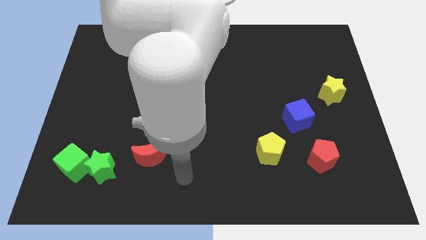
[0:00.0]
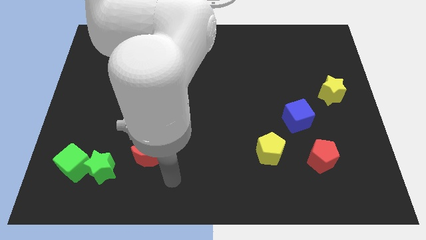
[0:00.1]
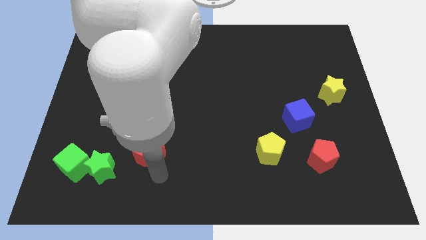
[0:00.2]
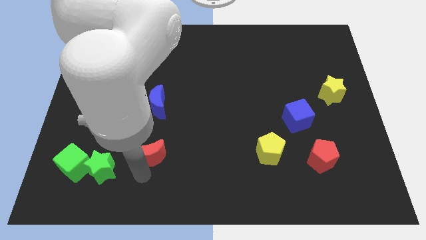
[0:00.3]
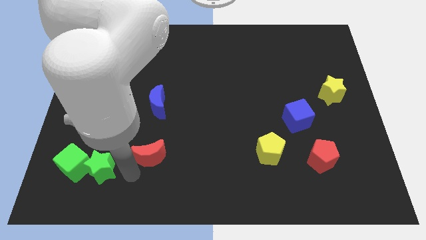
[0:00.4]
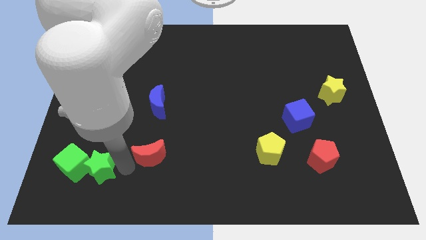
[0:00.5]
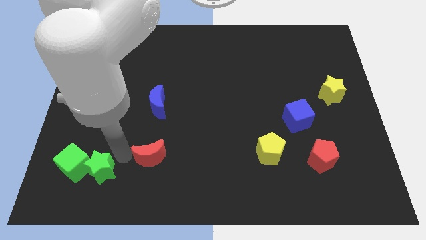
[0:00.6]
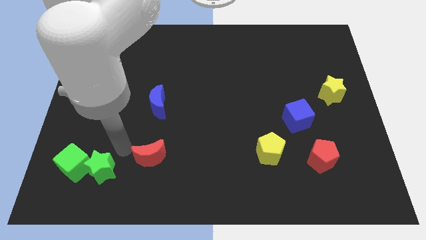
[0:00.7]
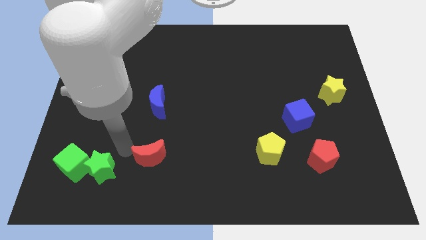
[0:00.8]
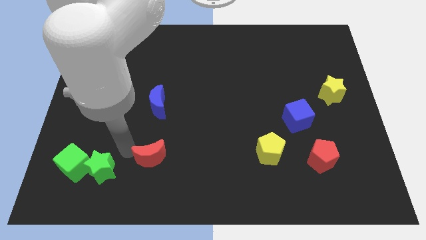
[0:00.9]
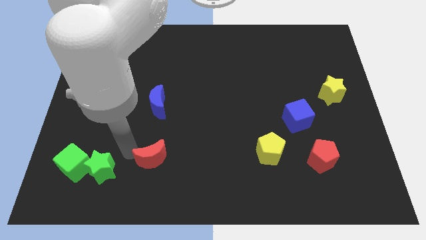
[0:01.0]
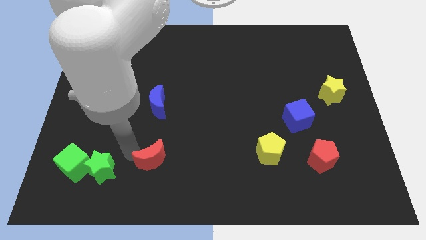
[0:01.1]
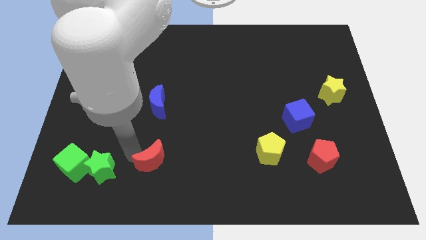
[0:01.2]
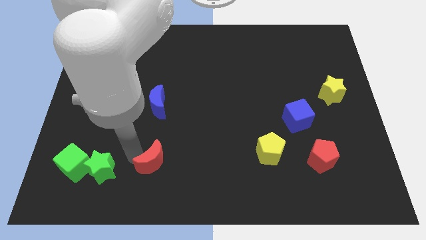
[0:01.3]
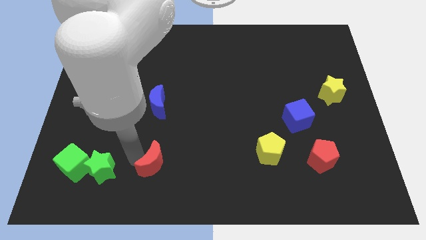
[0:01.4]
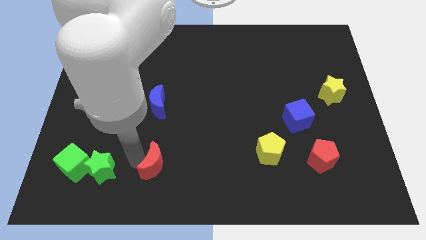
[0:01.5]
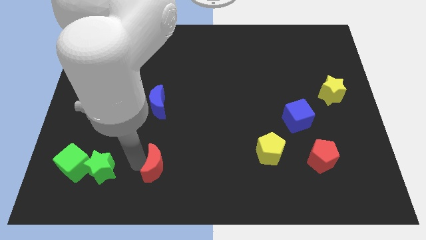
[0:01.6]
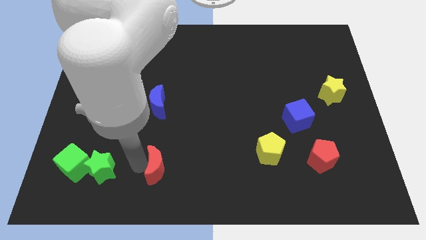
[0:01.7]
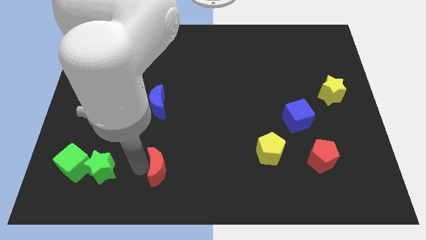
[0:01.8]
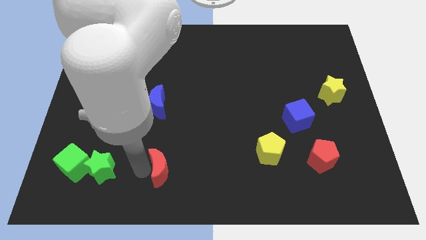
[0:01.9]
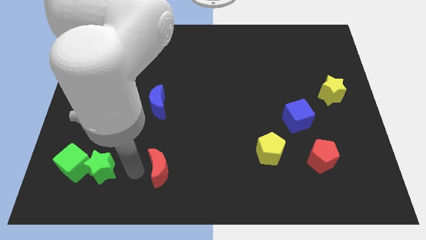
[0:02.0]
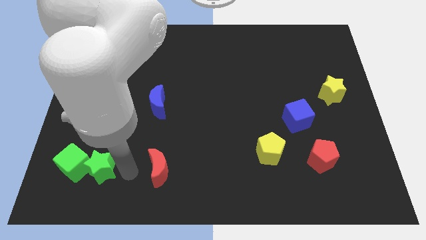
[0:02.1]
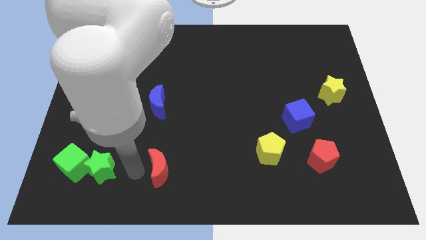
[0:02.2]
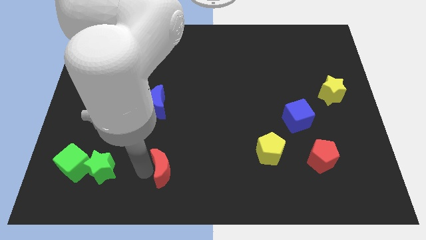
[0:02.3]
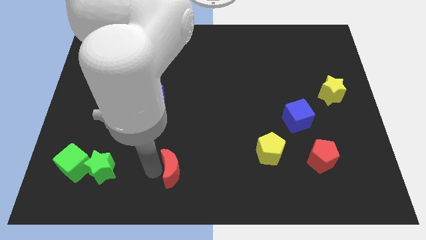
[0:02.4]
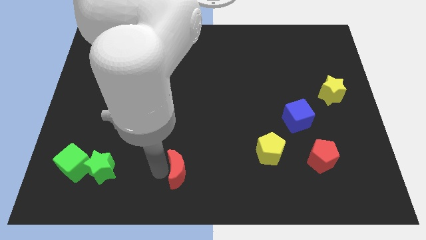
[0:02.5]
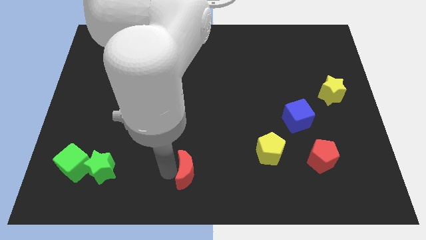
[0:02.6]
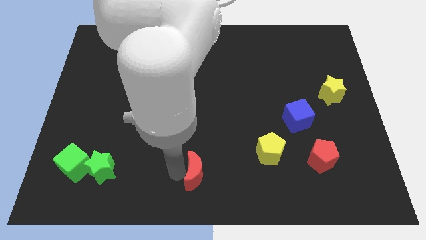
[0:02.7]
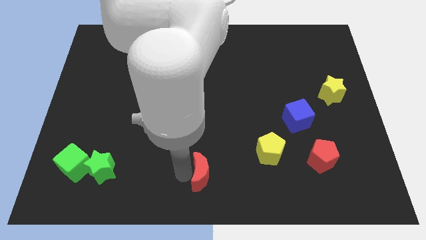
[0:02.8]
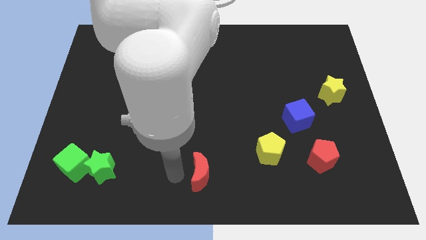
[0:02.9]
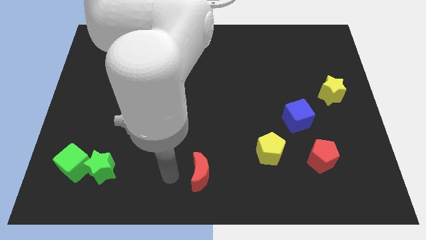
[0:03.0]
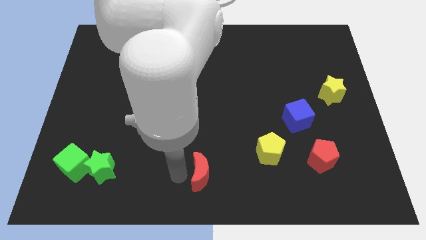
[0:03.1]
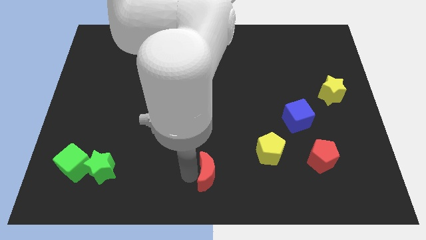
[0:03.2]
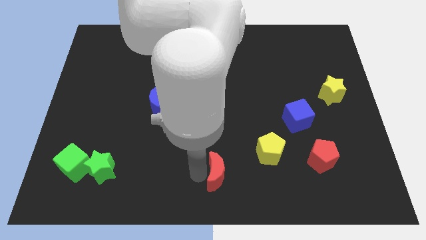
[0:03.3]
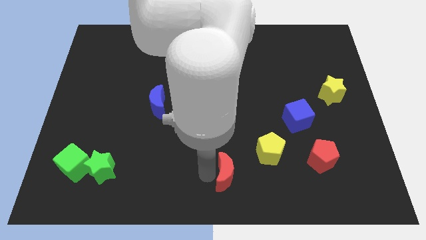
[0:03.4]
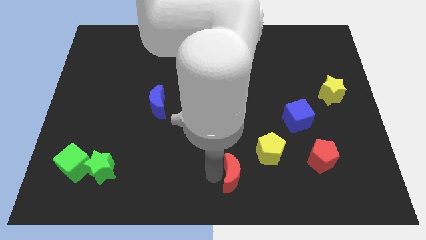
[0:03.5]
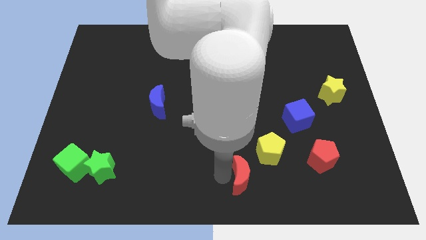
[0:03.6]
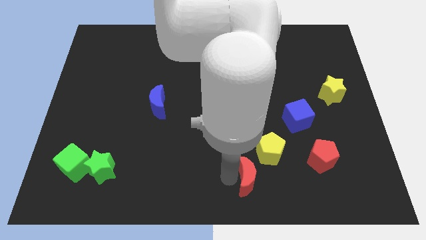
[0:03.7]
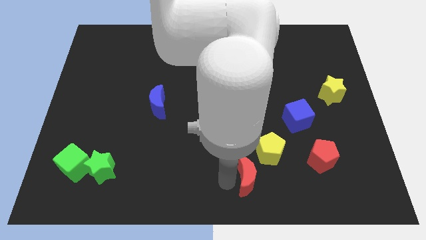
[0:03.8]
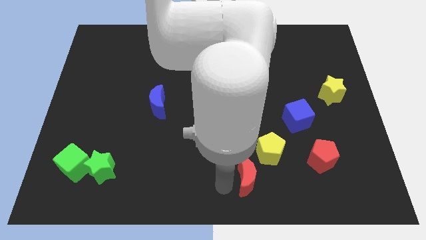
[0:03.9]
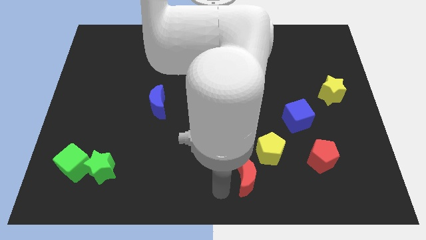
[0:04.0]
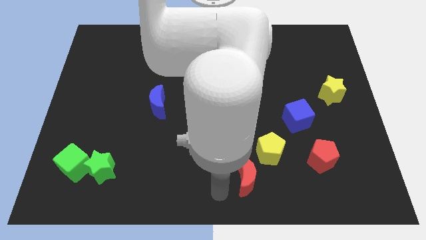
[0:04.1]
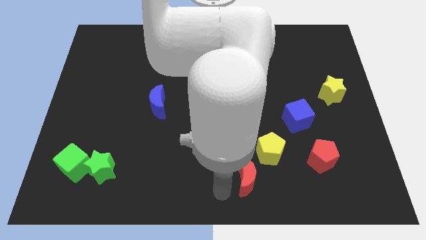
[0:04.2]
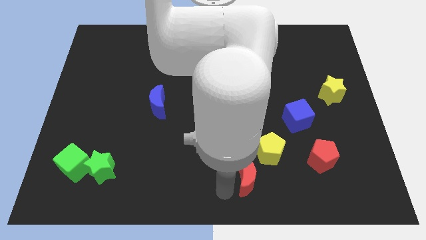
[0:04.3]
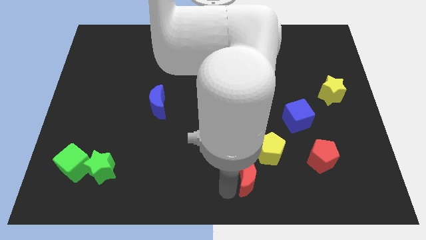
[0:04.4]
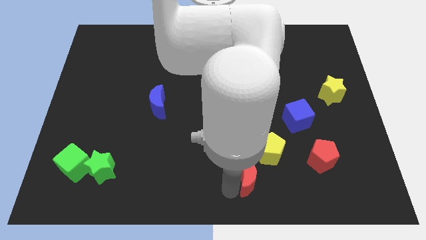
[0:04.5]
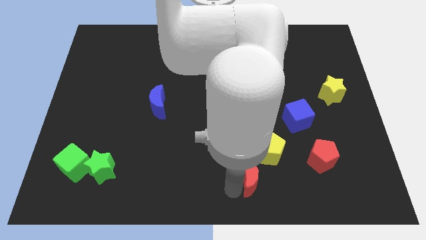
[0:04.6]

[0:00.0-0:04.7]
push the red moon right

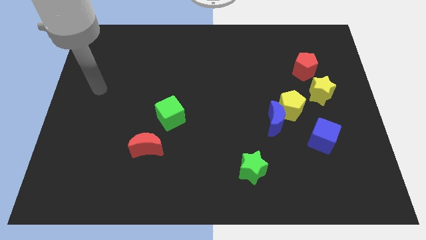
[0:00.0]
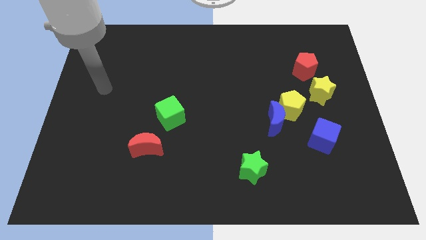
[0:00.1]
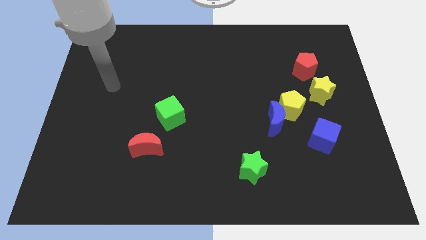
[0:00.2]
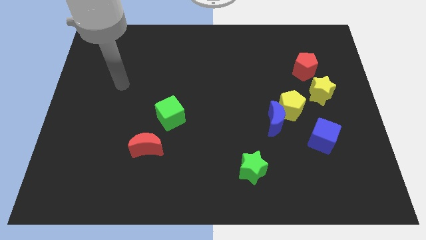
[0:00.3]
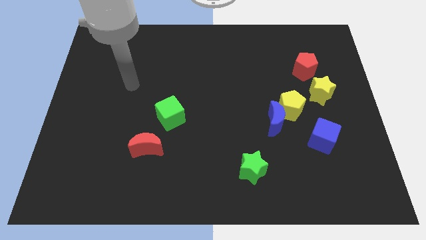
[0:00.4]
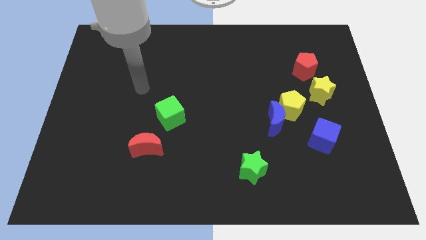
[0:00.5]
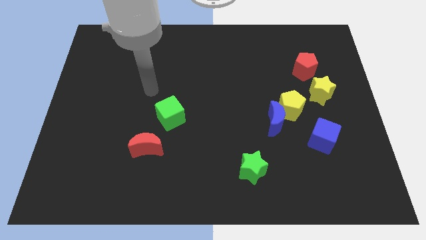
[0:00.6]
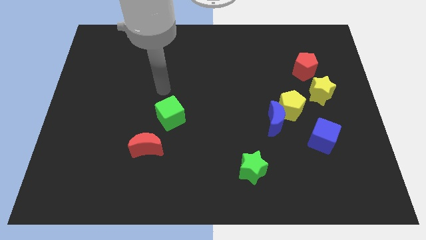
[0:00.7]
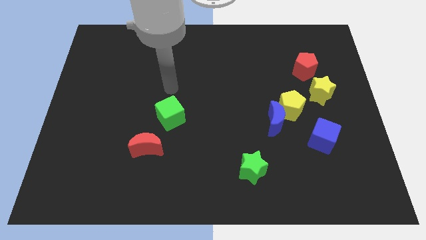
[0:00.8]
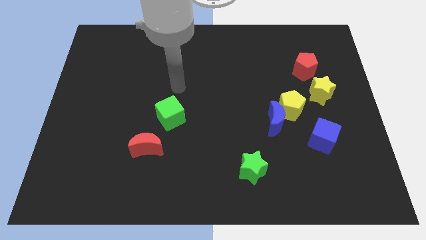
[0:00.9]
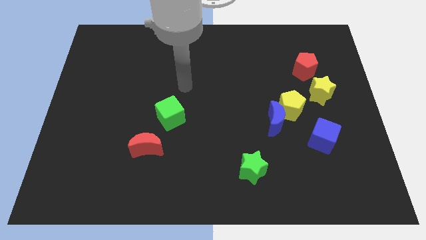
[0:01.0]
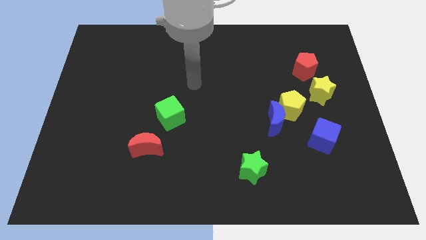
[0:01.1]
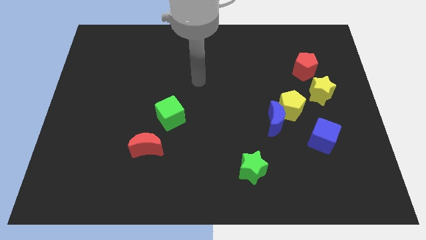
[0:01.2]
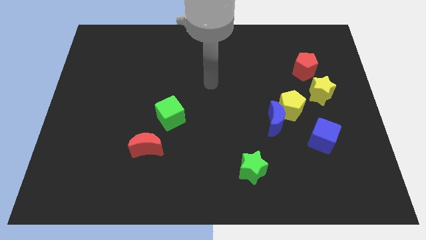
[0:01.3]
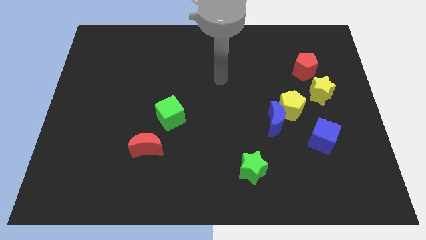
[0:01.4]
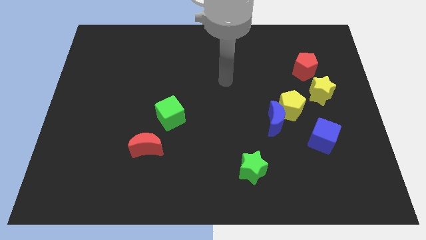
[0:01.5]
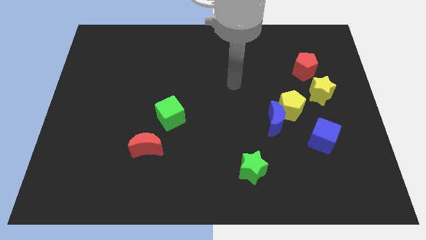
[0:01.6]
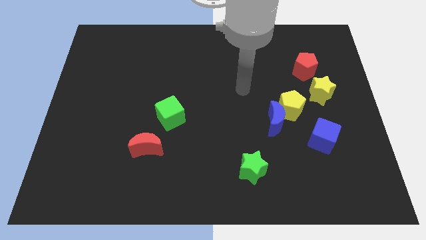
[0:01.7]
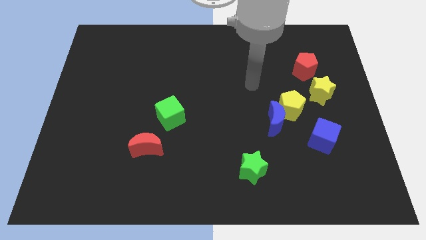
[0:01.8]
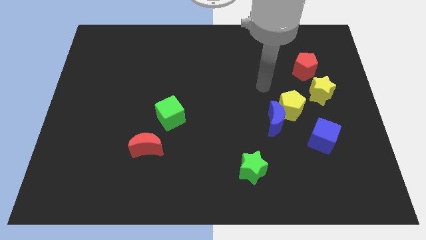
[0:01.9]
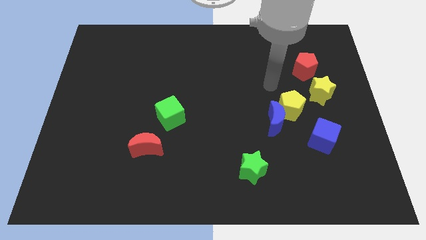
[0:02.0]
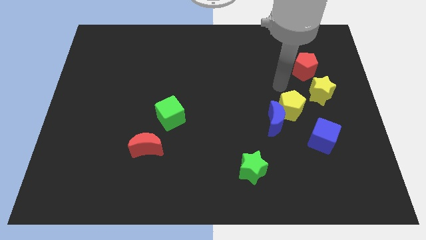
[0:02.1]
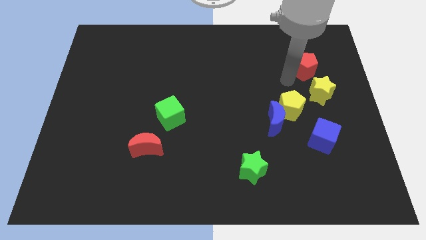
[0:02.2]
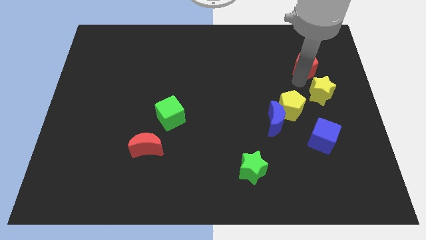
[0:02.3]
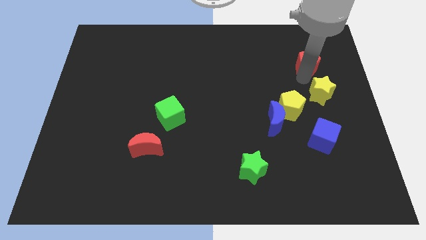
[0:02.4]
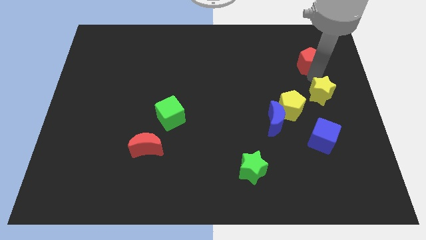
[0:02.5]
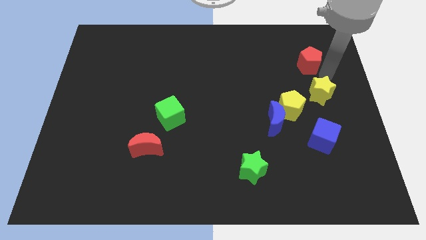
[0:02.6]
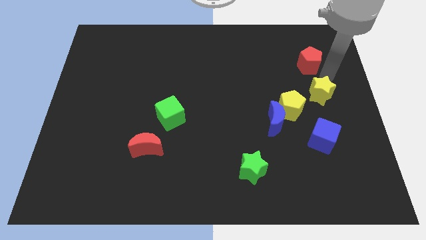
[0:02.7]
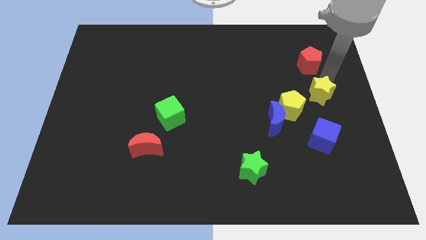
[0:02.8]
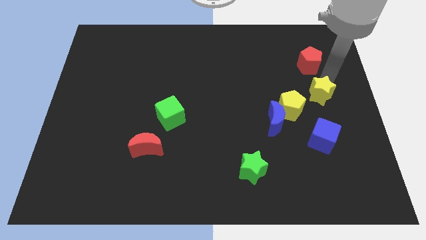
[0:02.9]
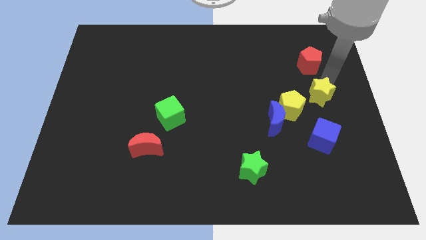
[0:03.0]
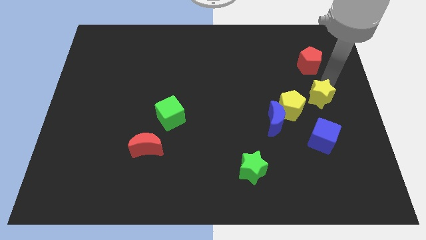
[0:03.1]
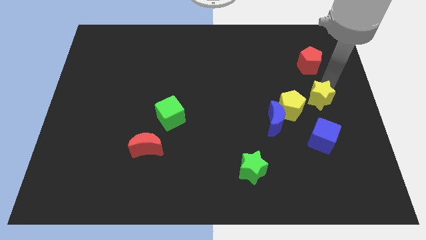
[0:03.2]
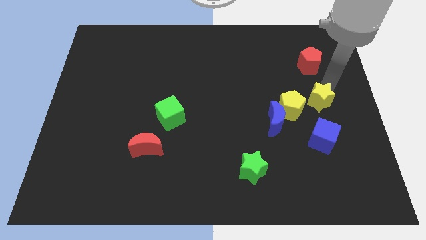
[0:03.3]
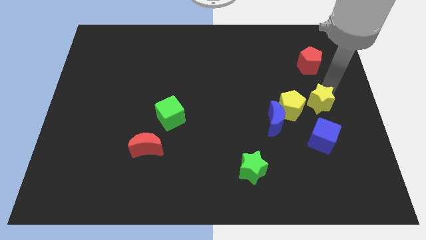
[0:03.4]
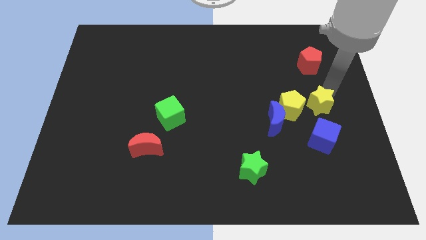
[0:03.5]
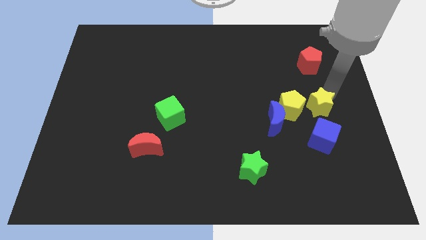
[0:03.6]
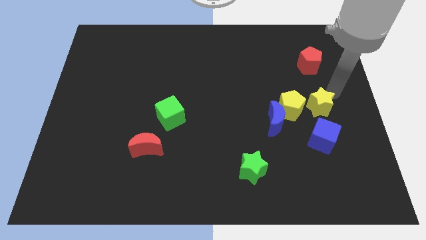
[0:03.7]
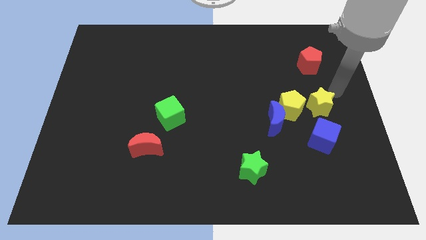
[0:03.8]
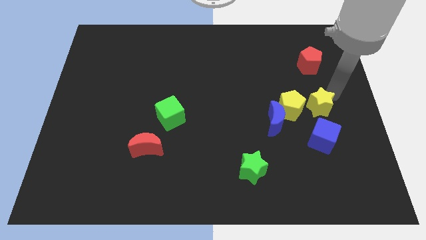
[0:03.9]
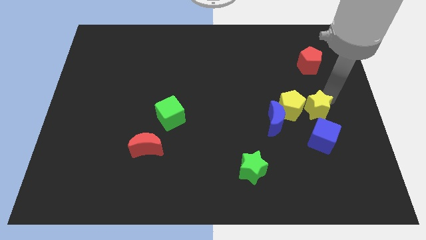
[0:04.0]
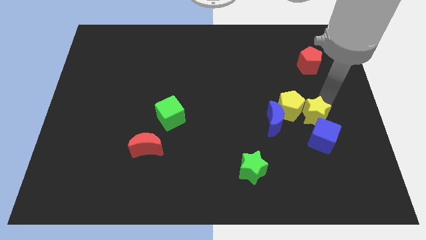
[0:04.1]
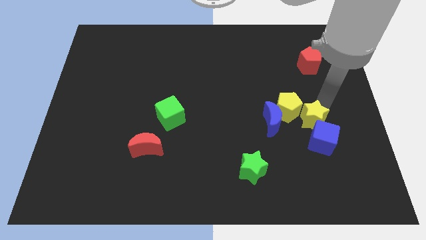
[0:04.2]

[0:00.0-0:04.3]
slightly move the yellow star diagonally downwards and to the left
